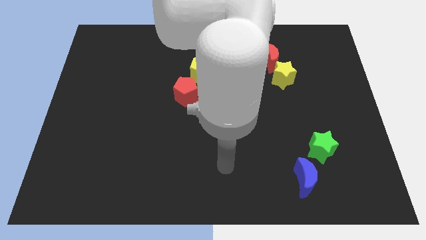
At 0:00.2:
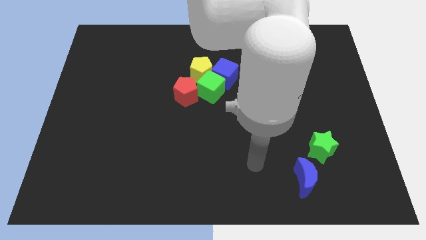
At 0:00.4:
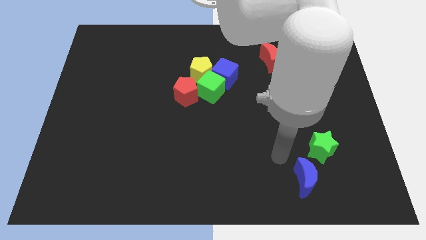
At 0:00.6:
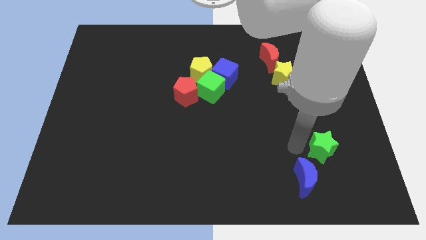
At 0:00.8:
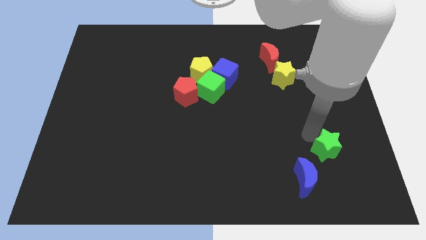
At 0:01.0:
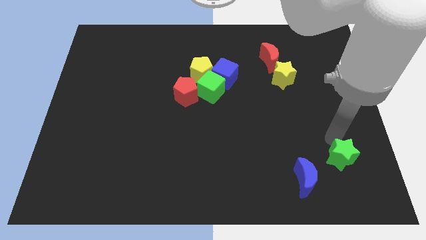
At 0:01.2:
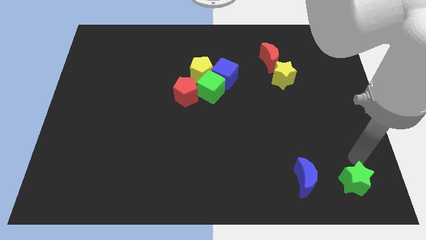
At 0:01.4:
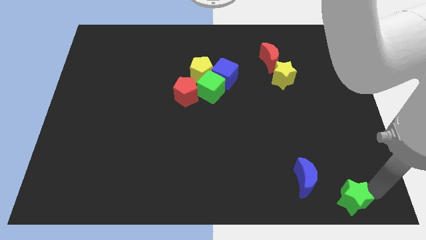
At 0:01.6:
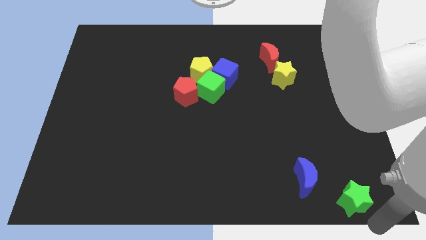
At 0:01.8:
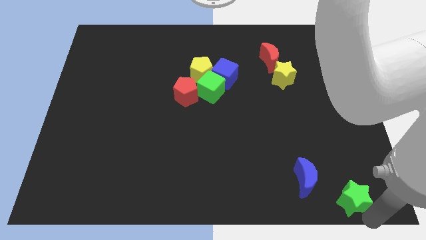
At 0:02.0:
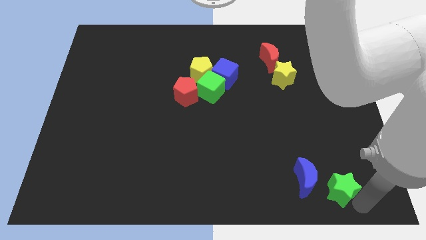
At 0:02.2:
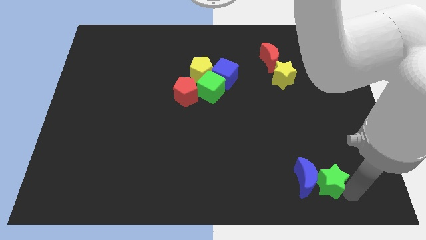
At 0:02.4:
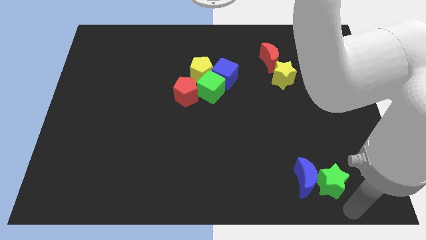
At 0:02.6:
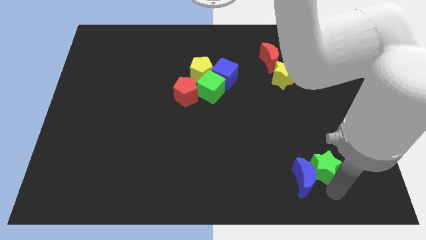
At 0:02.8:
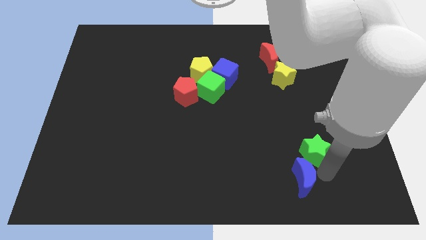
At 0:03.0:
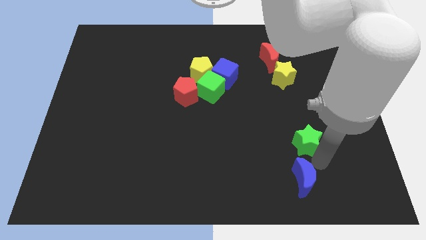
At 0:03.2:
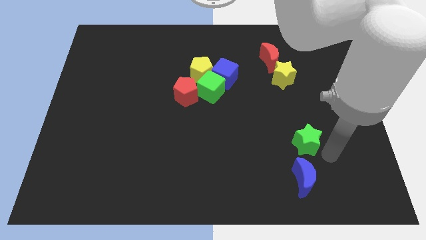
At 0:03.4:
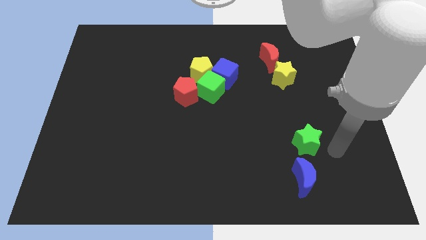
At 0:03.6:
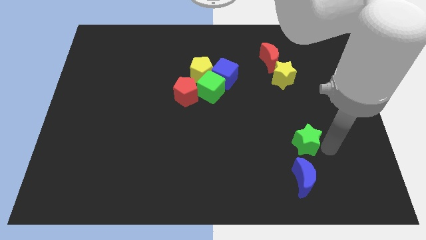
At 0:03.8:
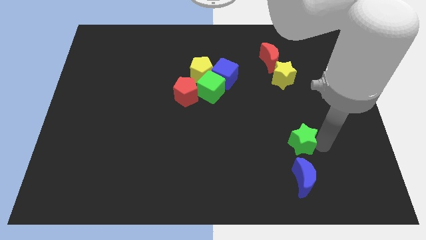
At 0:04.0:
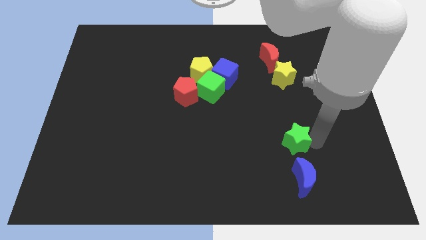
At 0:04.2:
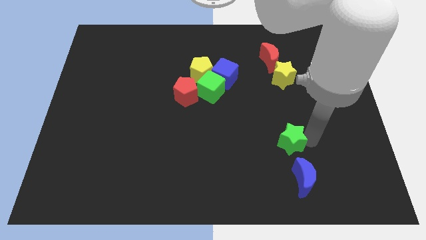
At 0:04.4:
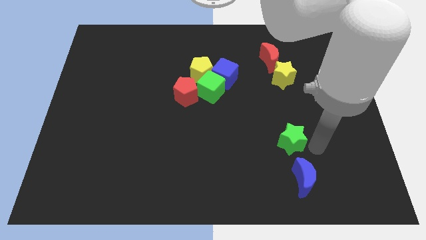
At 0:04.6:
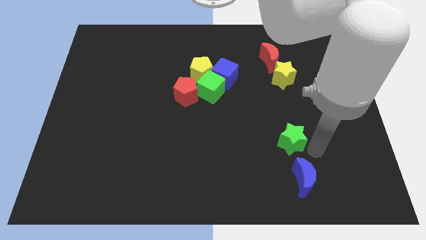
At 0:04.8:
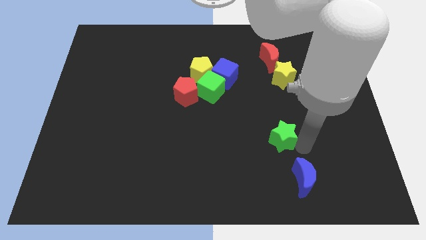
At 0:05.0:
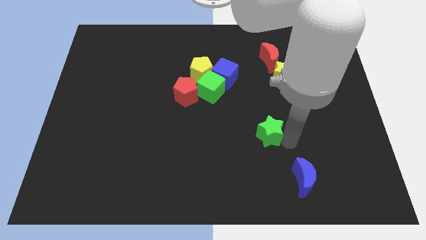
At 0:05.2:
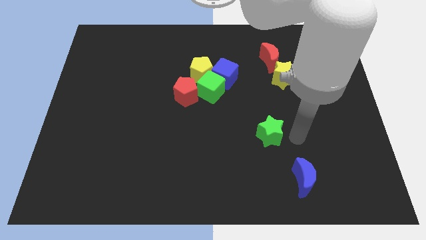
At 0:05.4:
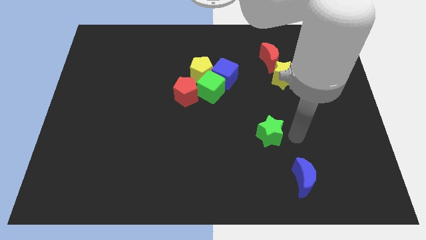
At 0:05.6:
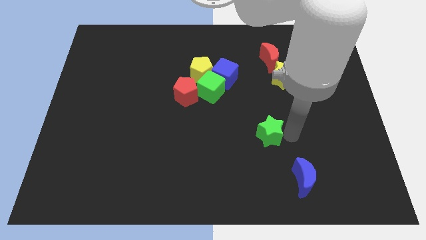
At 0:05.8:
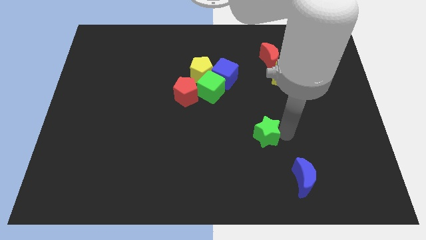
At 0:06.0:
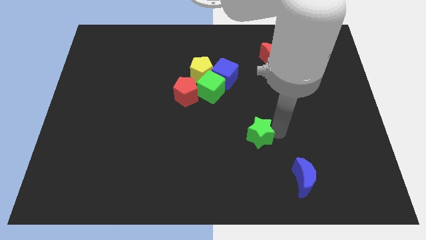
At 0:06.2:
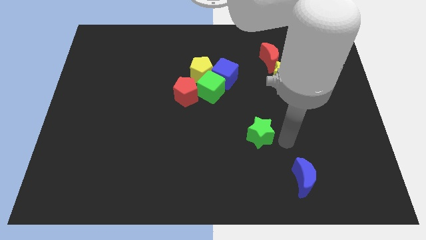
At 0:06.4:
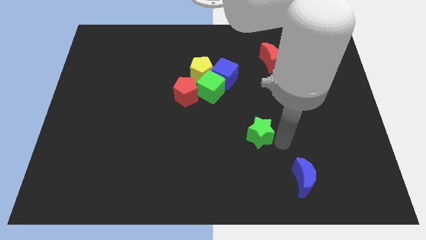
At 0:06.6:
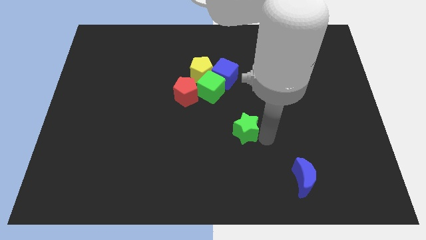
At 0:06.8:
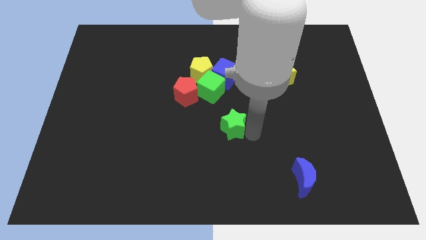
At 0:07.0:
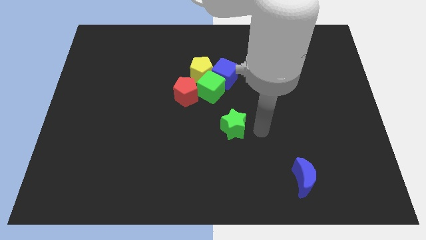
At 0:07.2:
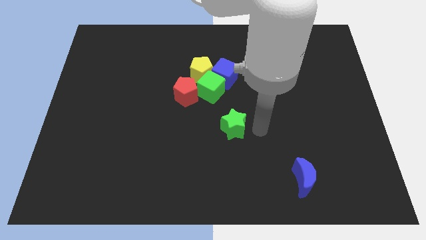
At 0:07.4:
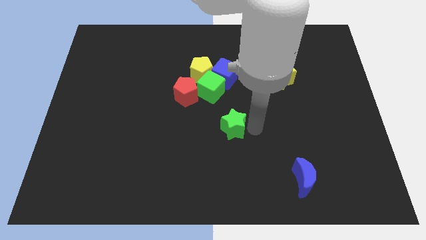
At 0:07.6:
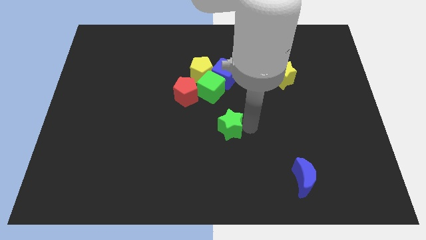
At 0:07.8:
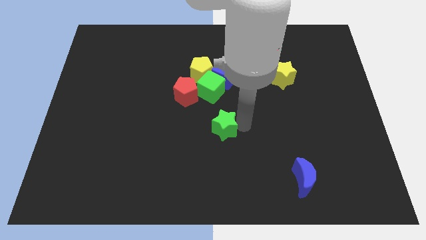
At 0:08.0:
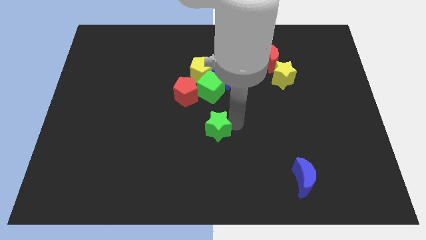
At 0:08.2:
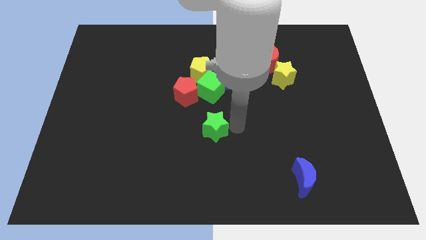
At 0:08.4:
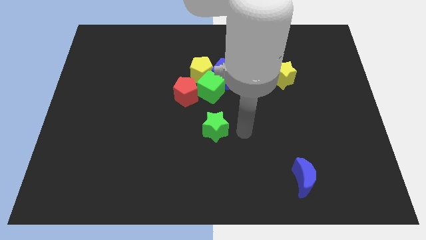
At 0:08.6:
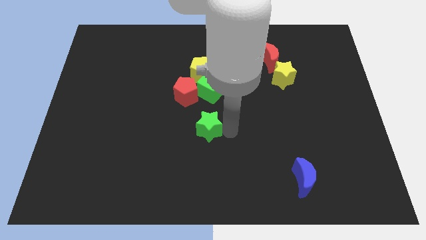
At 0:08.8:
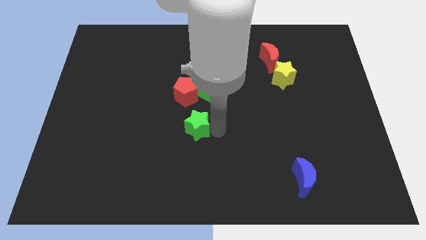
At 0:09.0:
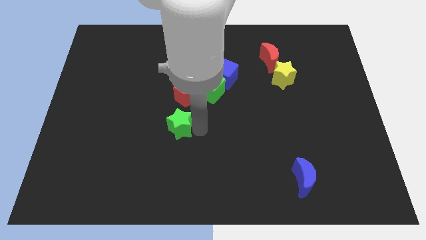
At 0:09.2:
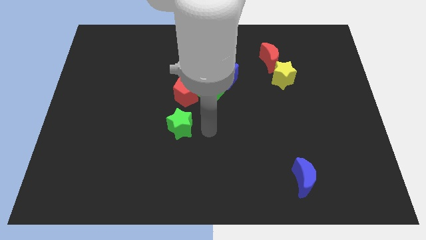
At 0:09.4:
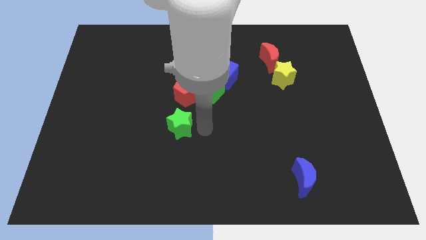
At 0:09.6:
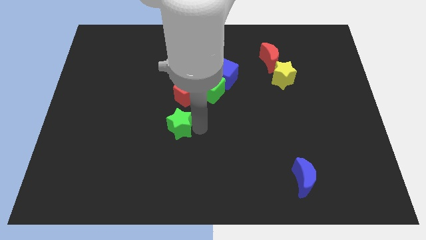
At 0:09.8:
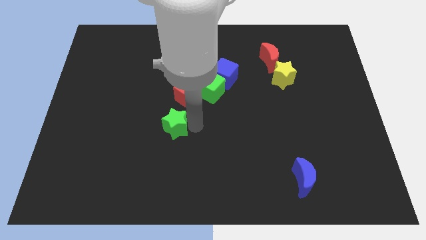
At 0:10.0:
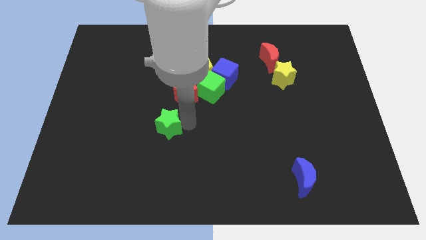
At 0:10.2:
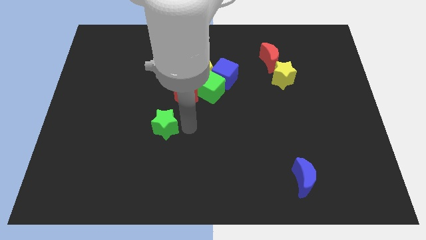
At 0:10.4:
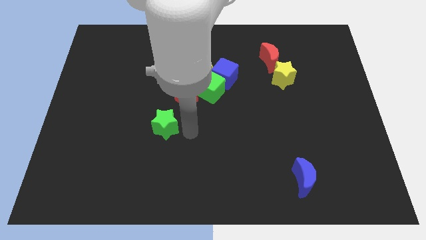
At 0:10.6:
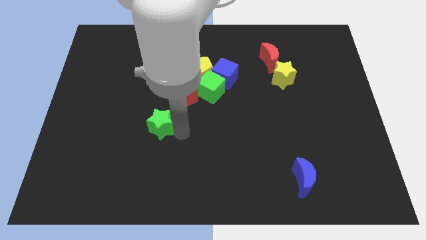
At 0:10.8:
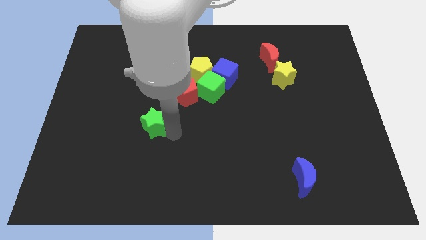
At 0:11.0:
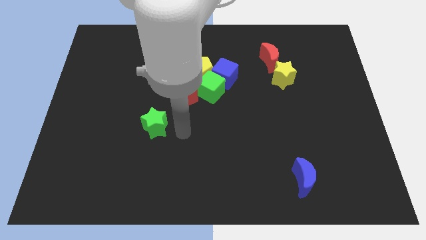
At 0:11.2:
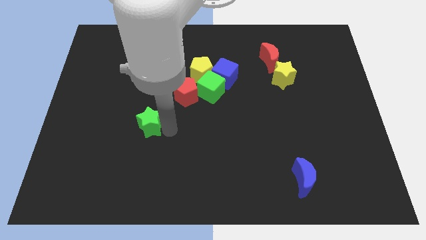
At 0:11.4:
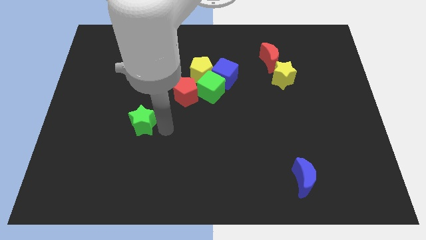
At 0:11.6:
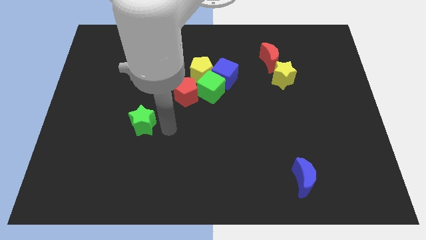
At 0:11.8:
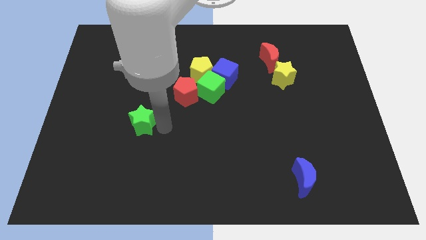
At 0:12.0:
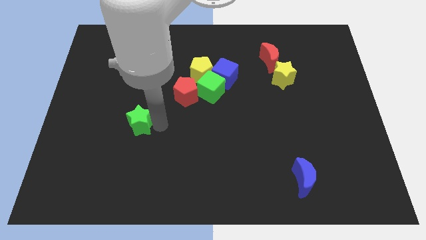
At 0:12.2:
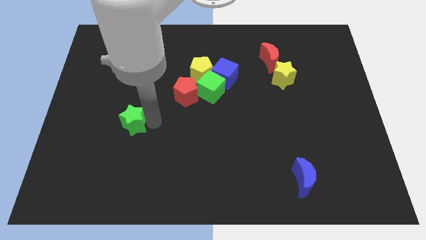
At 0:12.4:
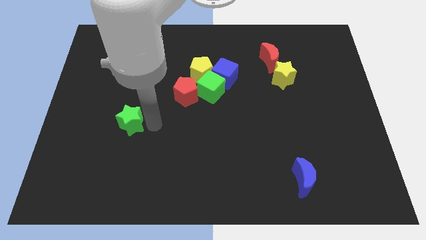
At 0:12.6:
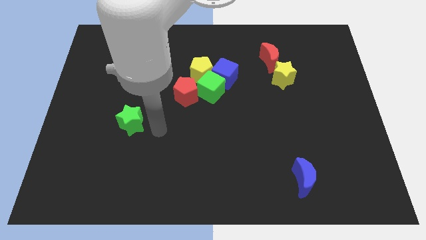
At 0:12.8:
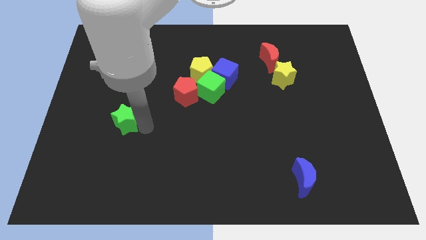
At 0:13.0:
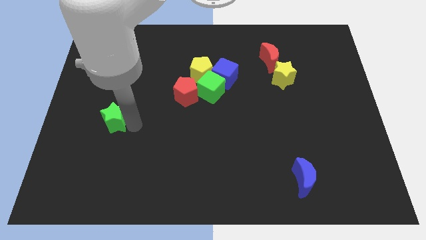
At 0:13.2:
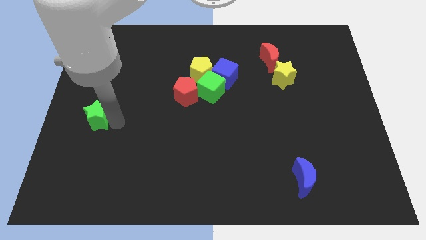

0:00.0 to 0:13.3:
slide the green star to the left side of the board
